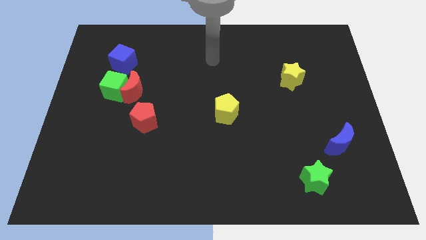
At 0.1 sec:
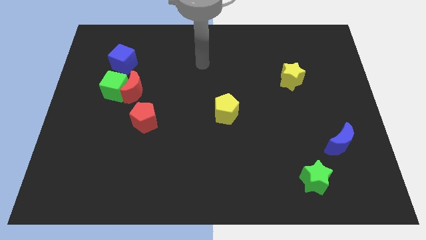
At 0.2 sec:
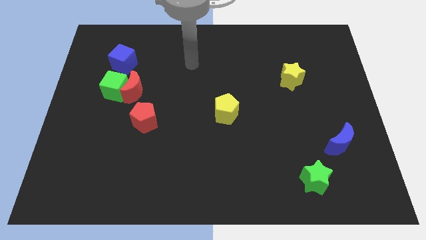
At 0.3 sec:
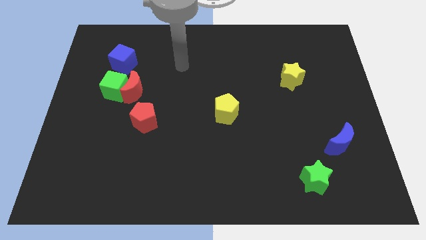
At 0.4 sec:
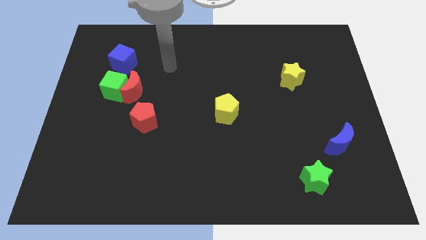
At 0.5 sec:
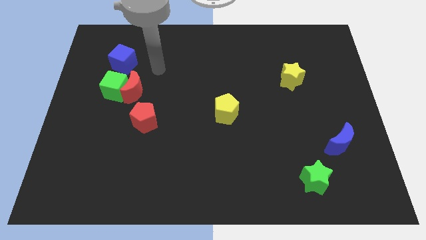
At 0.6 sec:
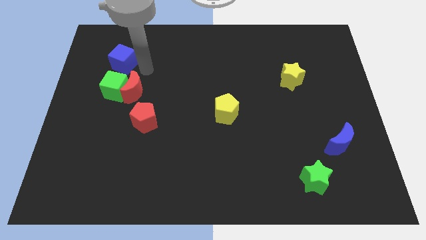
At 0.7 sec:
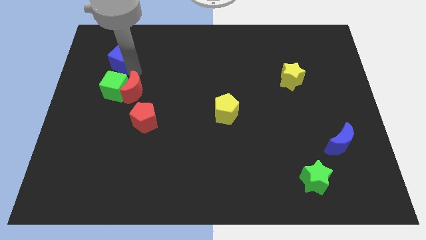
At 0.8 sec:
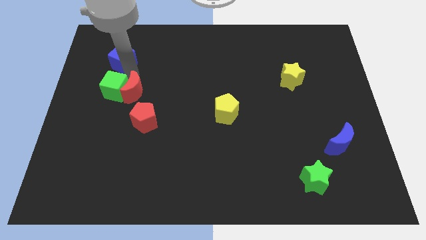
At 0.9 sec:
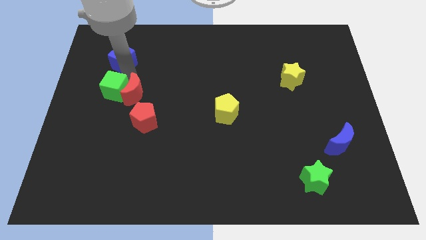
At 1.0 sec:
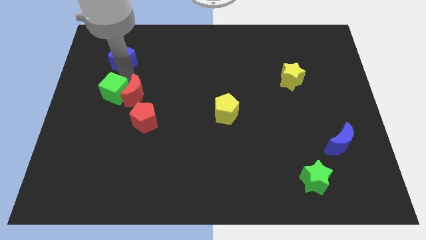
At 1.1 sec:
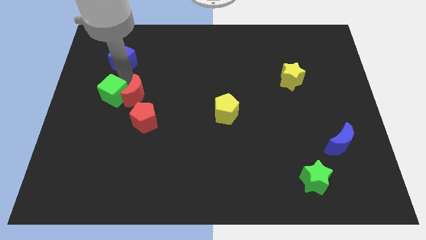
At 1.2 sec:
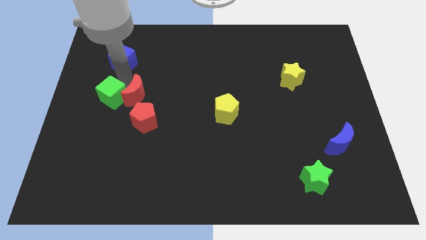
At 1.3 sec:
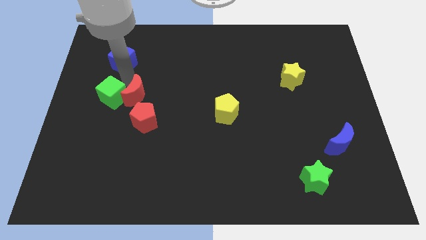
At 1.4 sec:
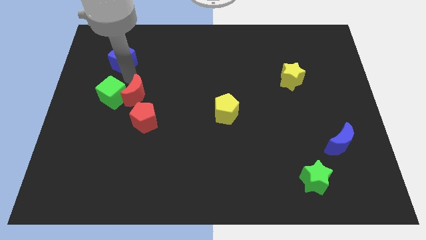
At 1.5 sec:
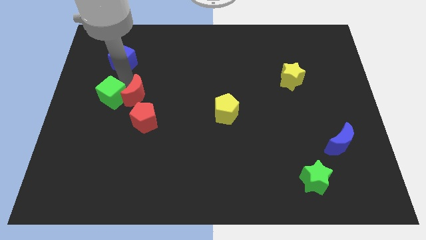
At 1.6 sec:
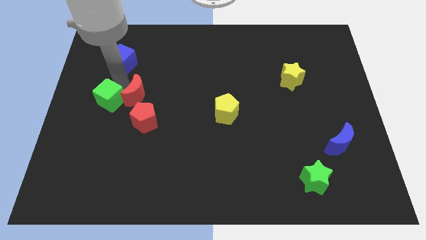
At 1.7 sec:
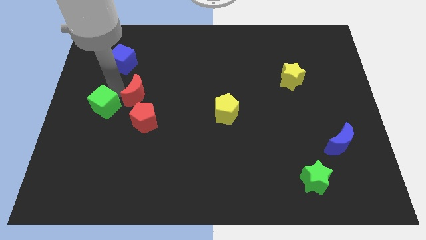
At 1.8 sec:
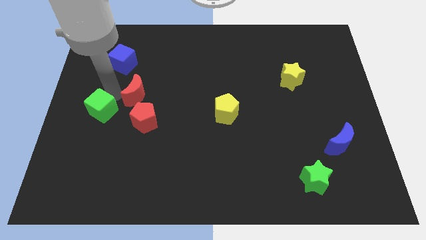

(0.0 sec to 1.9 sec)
separate the green cube from the red moon and blue cube

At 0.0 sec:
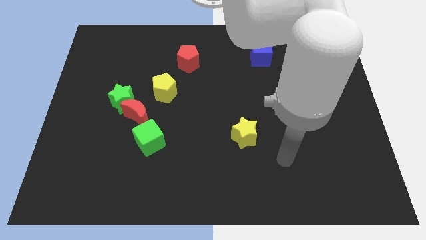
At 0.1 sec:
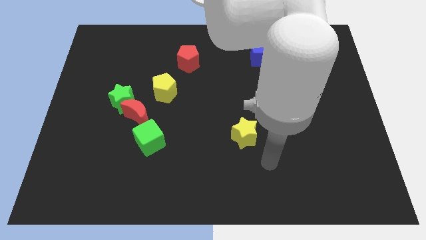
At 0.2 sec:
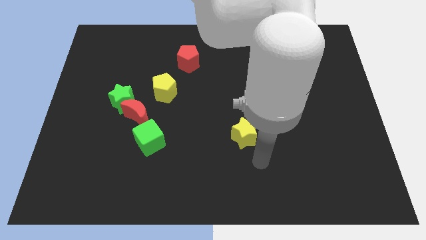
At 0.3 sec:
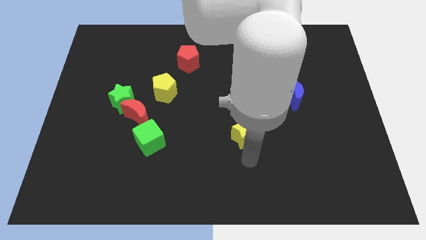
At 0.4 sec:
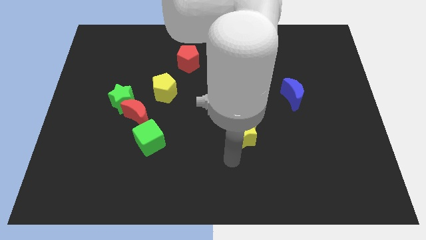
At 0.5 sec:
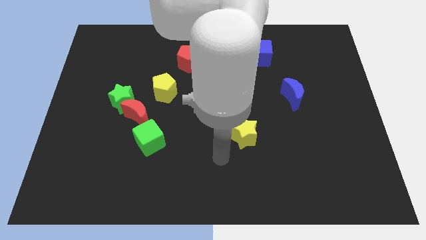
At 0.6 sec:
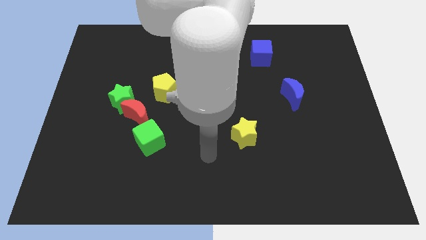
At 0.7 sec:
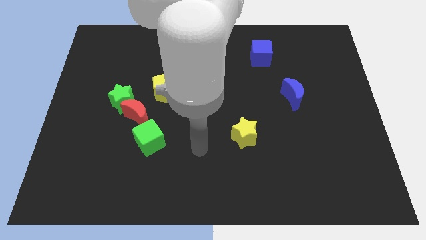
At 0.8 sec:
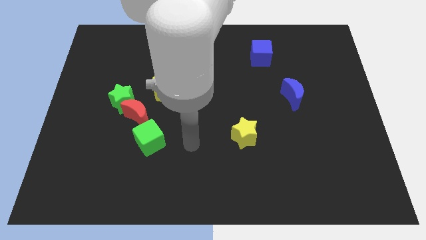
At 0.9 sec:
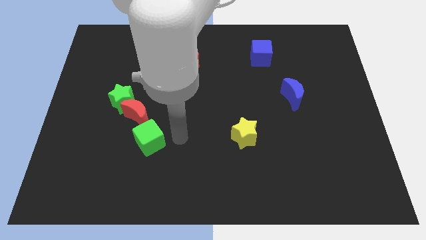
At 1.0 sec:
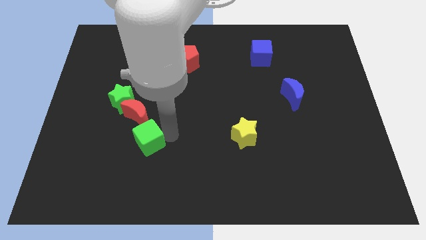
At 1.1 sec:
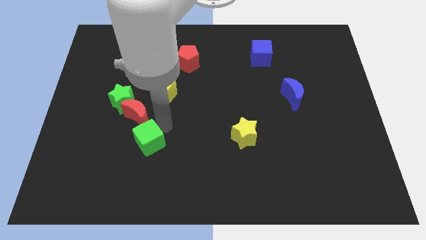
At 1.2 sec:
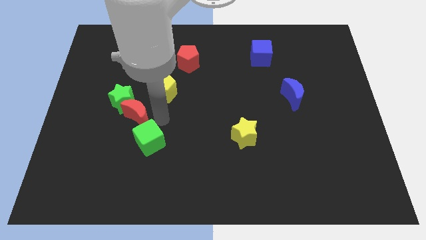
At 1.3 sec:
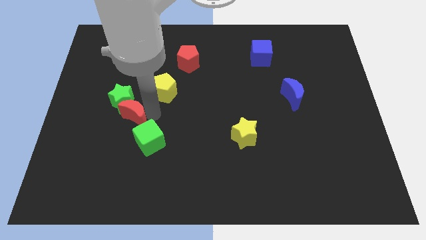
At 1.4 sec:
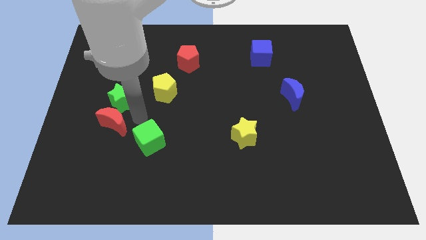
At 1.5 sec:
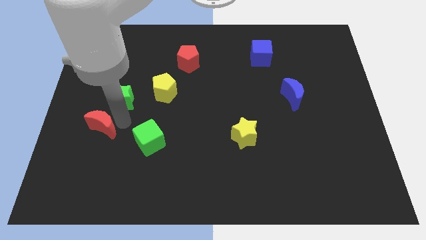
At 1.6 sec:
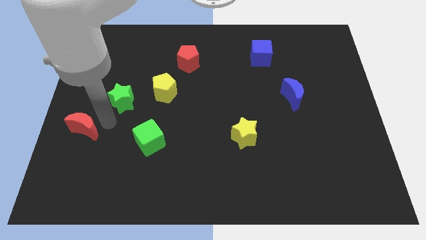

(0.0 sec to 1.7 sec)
move the green star away from the red moon

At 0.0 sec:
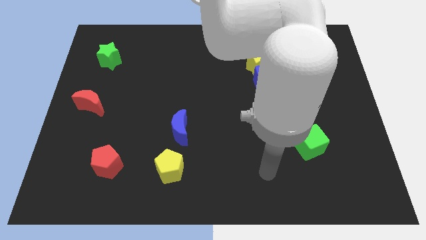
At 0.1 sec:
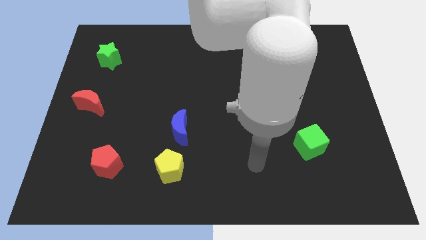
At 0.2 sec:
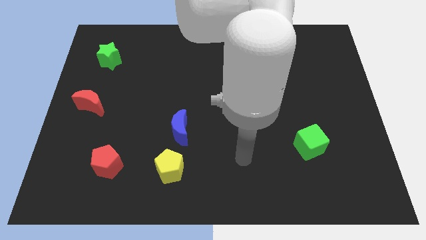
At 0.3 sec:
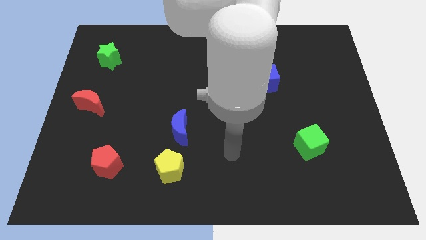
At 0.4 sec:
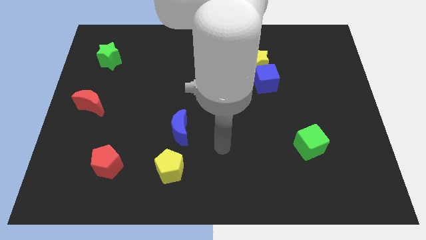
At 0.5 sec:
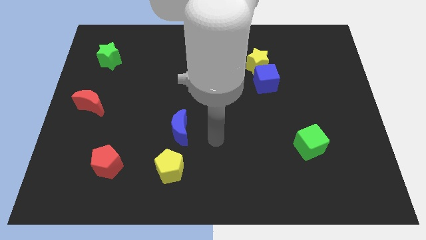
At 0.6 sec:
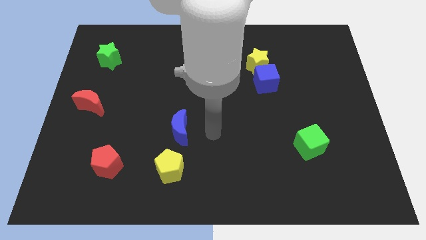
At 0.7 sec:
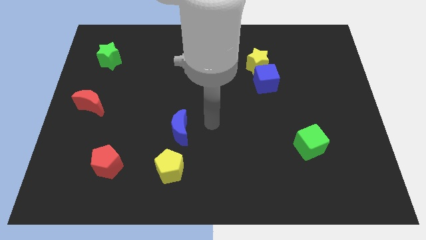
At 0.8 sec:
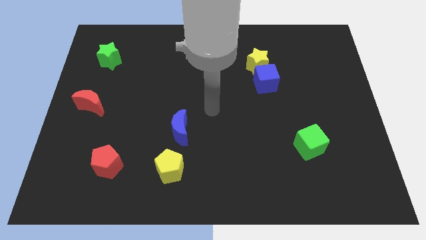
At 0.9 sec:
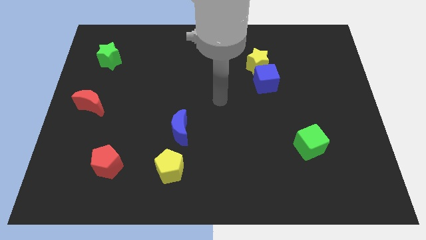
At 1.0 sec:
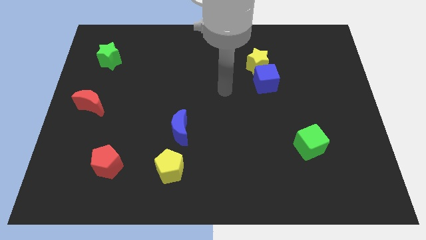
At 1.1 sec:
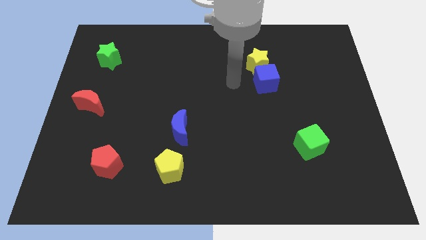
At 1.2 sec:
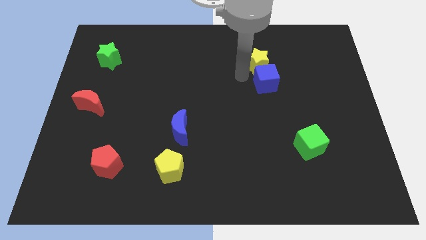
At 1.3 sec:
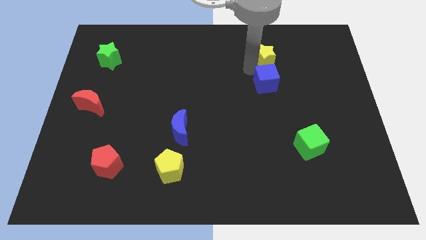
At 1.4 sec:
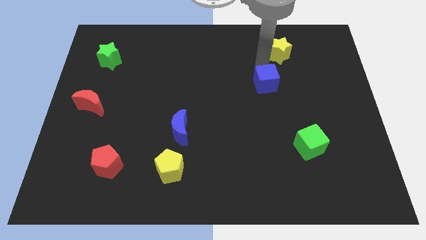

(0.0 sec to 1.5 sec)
separate the blue cube from the yellow star

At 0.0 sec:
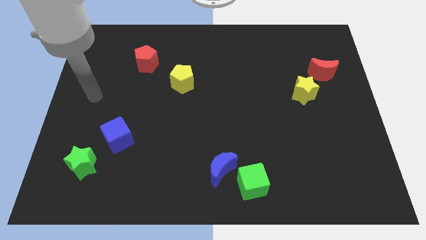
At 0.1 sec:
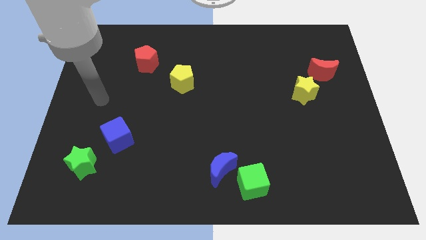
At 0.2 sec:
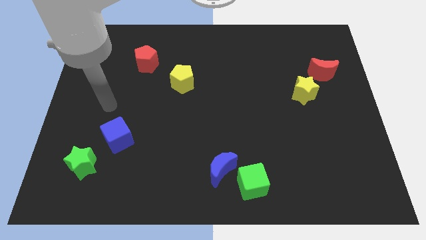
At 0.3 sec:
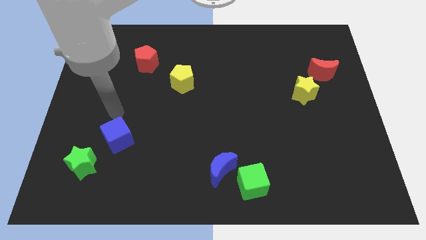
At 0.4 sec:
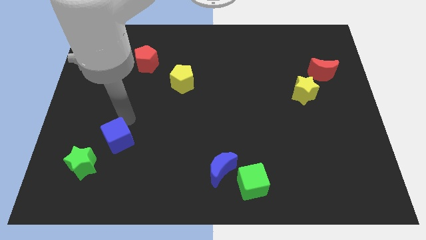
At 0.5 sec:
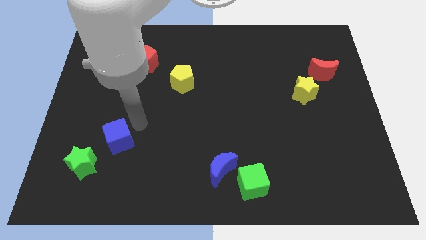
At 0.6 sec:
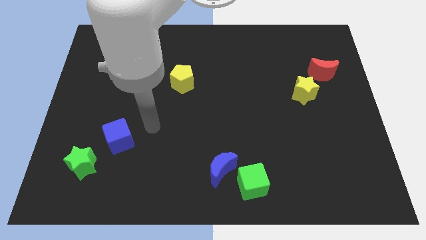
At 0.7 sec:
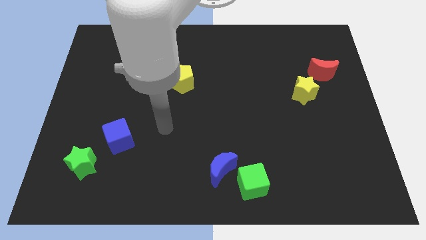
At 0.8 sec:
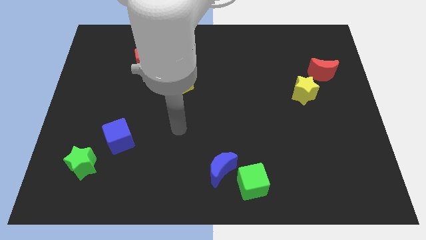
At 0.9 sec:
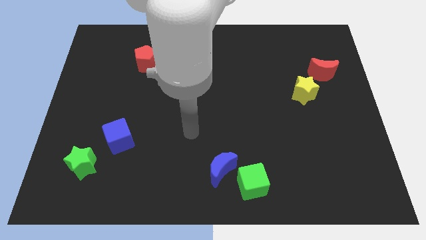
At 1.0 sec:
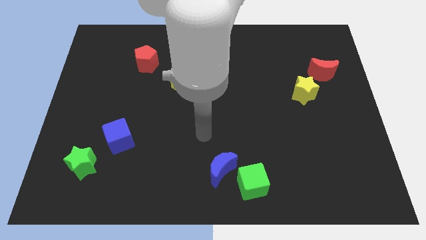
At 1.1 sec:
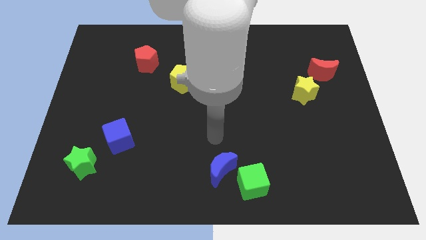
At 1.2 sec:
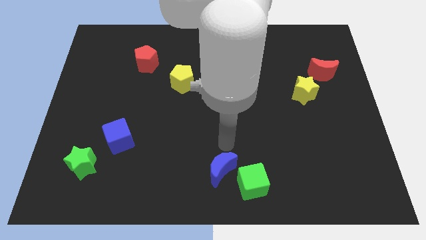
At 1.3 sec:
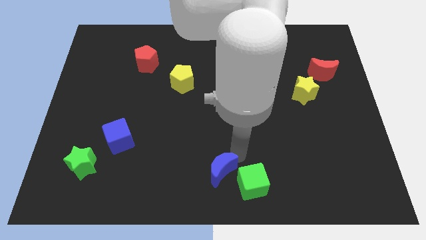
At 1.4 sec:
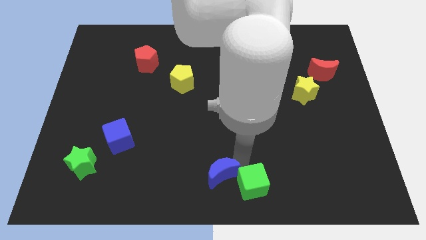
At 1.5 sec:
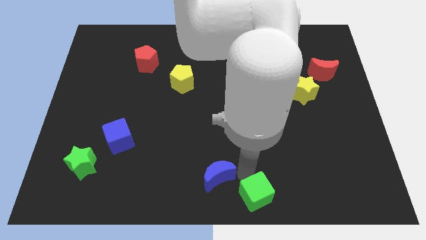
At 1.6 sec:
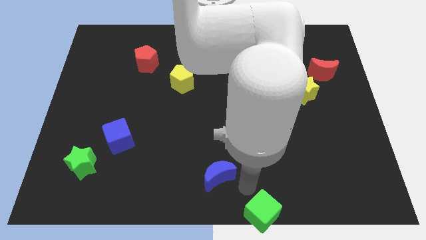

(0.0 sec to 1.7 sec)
pull the blue moon apart from the green cube

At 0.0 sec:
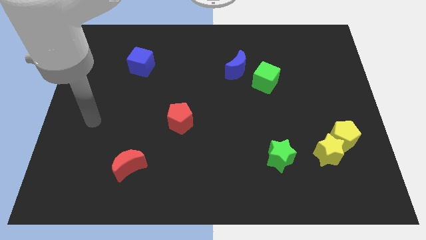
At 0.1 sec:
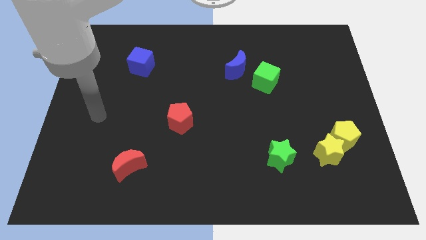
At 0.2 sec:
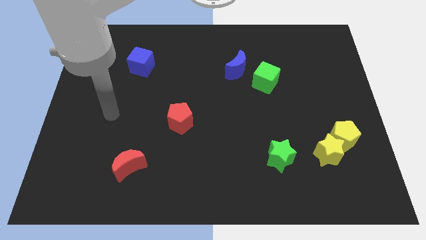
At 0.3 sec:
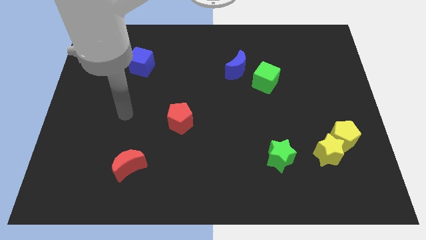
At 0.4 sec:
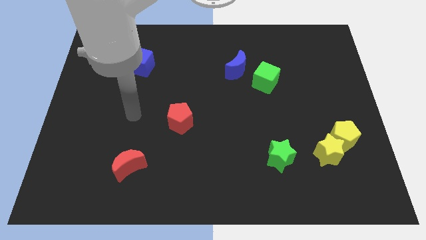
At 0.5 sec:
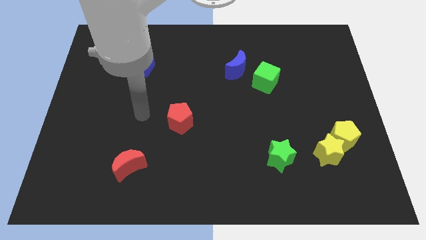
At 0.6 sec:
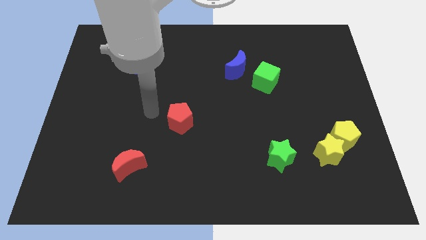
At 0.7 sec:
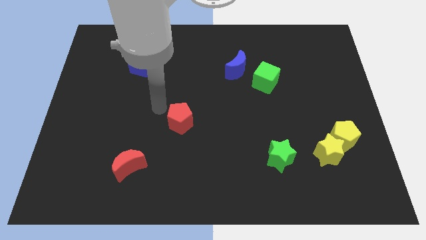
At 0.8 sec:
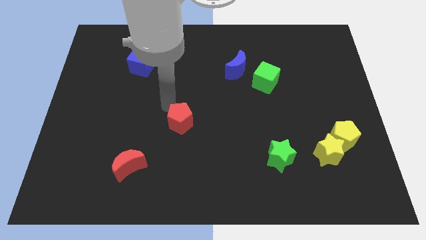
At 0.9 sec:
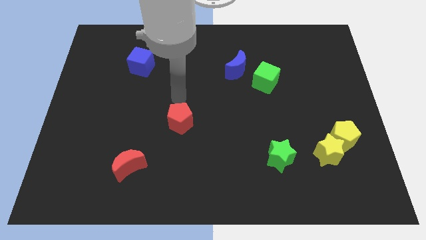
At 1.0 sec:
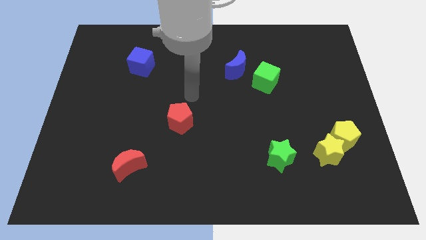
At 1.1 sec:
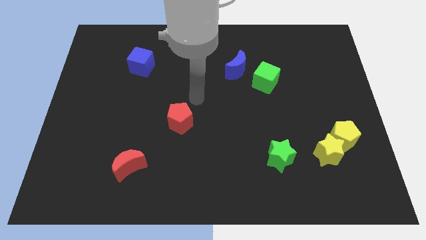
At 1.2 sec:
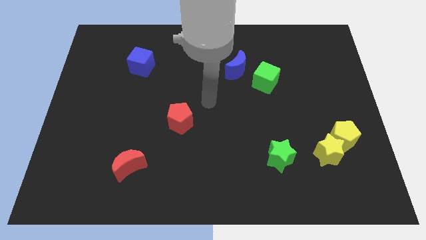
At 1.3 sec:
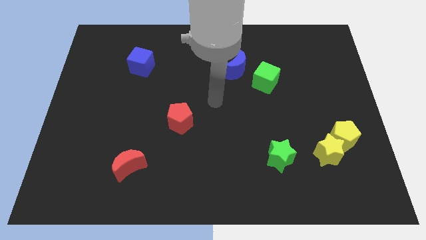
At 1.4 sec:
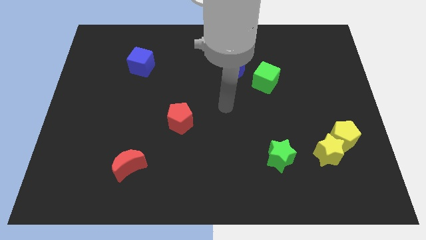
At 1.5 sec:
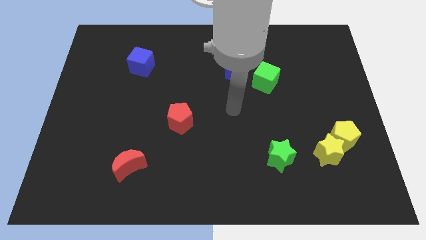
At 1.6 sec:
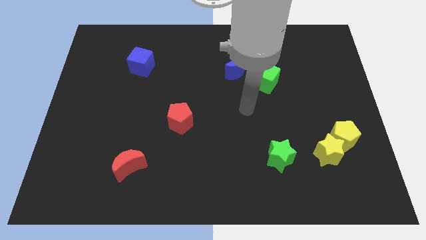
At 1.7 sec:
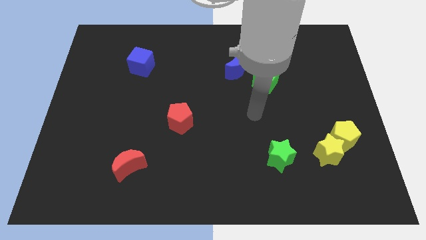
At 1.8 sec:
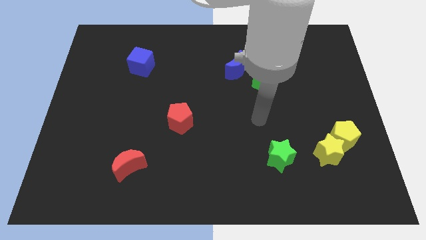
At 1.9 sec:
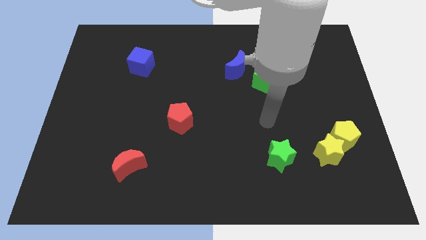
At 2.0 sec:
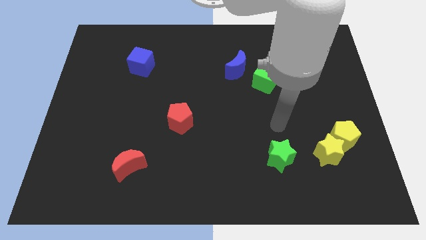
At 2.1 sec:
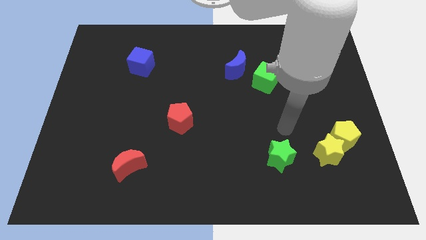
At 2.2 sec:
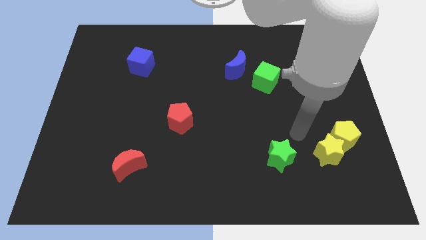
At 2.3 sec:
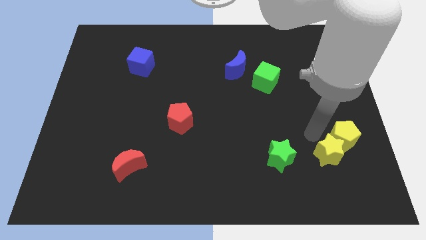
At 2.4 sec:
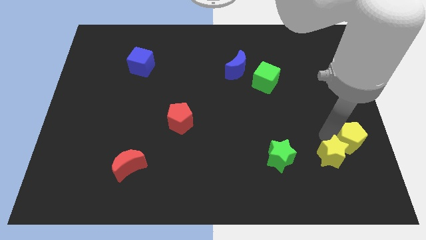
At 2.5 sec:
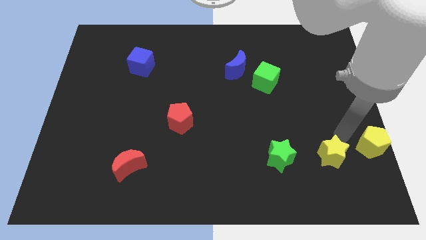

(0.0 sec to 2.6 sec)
move the yellow star away from the yellow pentagon
